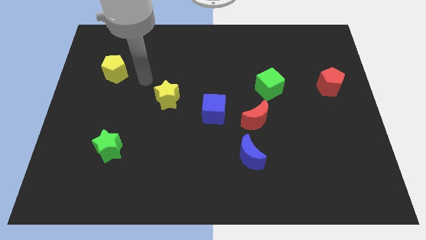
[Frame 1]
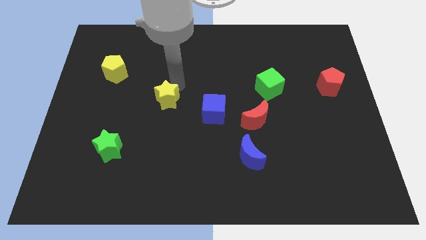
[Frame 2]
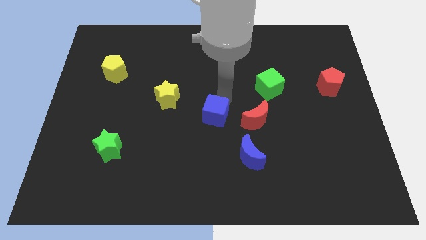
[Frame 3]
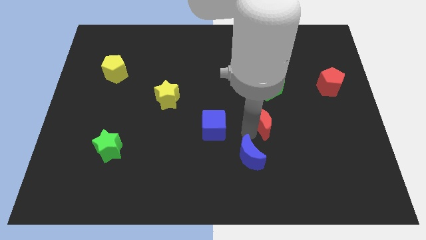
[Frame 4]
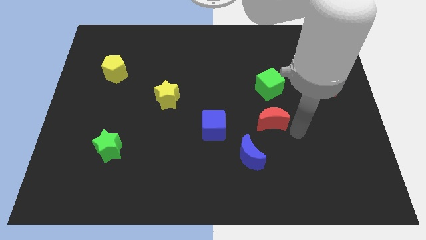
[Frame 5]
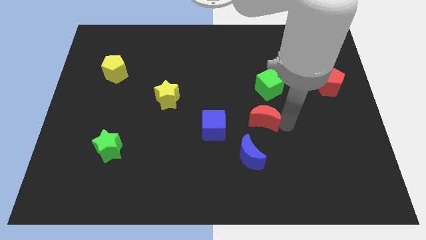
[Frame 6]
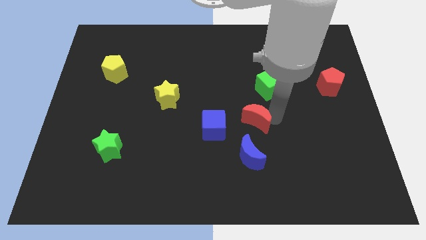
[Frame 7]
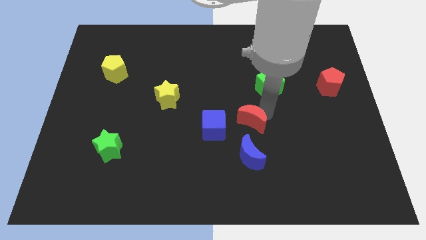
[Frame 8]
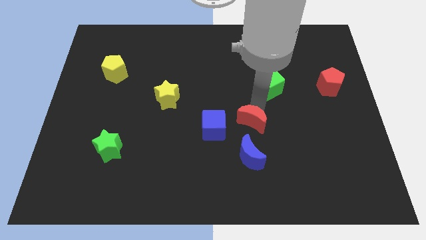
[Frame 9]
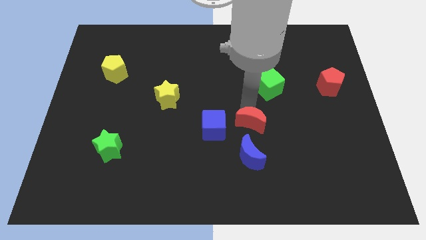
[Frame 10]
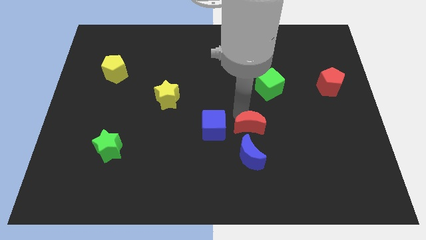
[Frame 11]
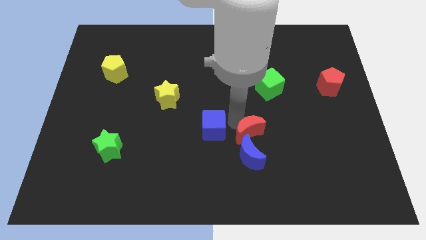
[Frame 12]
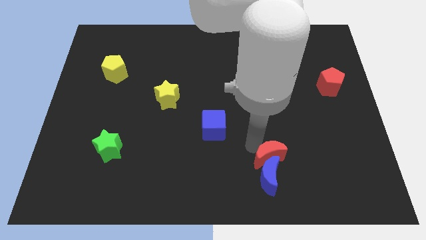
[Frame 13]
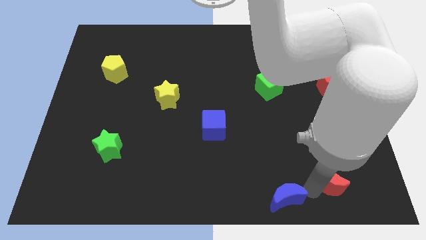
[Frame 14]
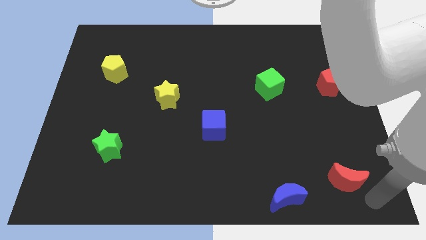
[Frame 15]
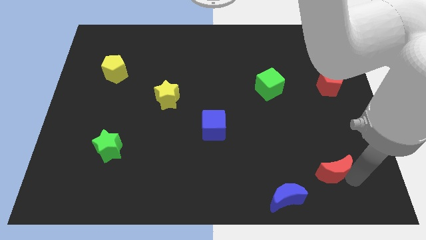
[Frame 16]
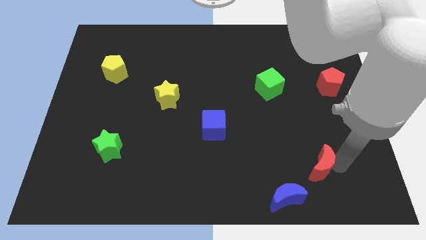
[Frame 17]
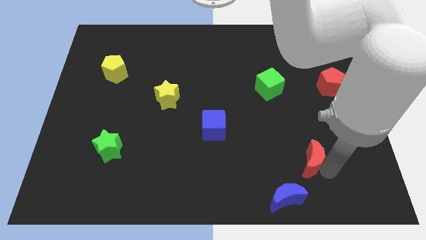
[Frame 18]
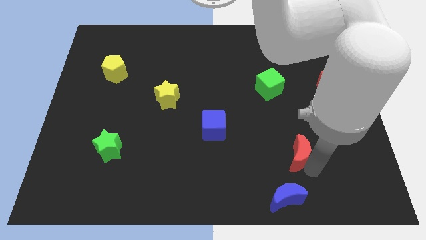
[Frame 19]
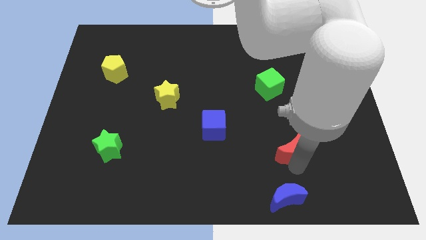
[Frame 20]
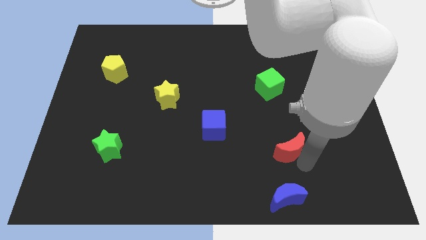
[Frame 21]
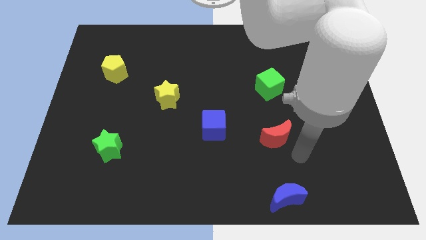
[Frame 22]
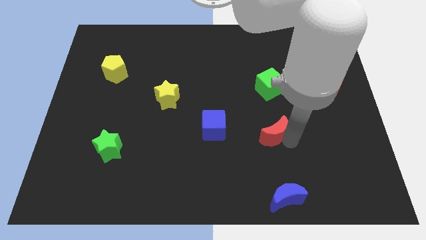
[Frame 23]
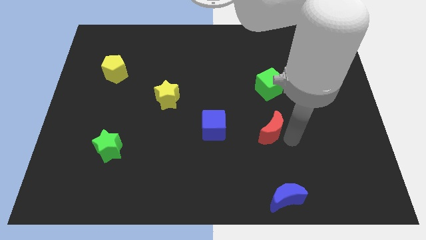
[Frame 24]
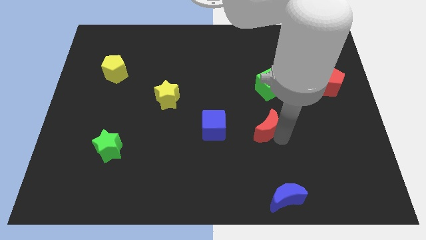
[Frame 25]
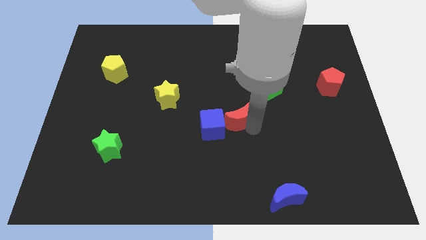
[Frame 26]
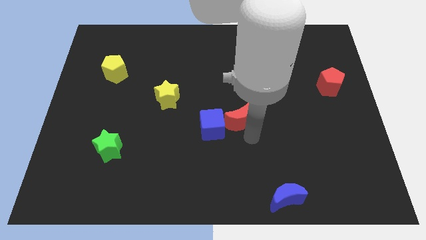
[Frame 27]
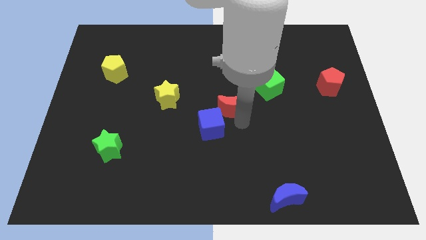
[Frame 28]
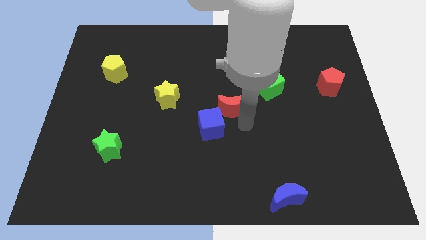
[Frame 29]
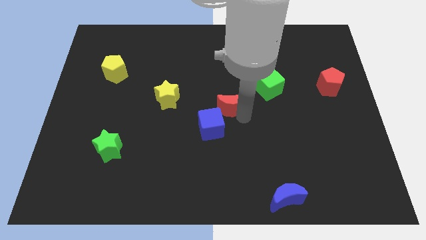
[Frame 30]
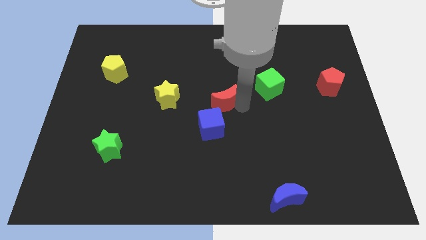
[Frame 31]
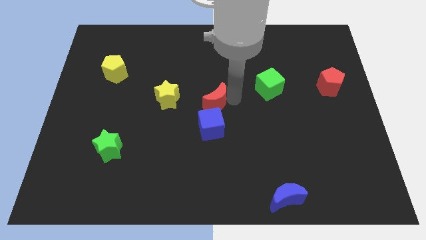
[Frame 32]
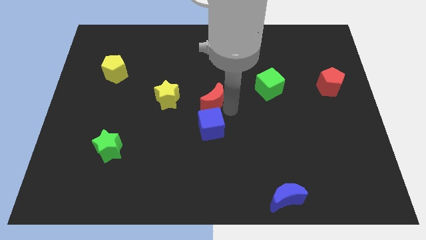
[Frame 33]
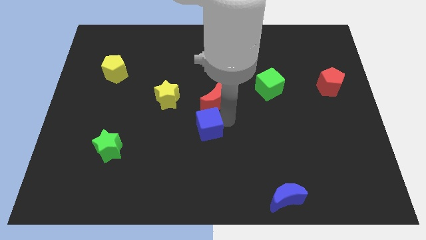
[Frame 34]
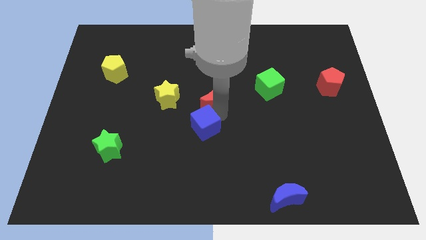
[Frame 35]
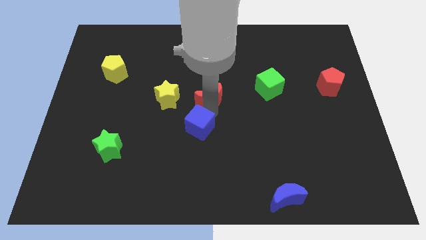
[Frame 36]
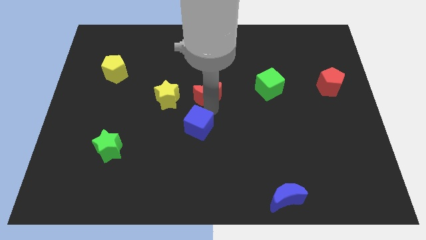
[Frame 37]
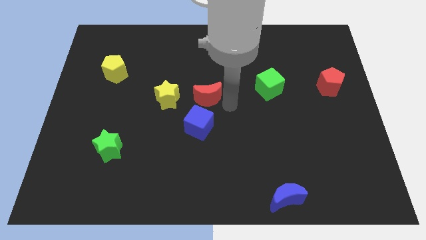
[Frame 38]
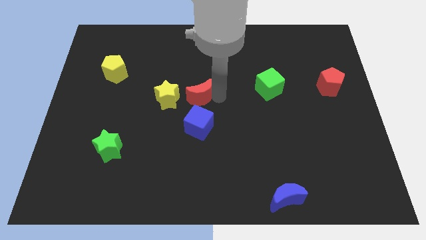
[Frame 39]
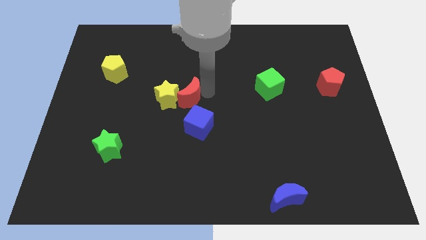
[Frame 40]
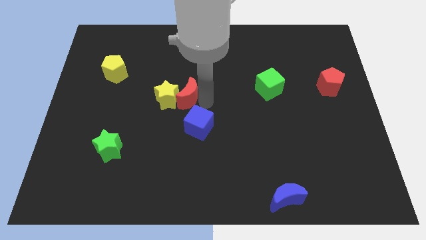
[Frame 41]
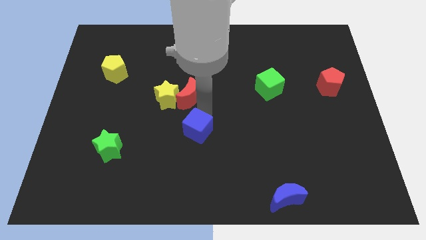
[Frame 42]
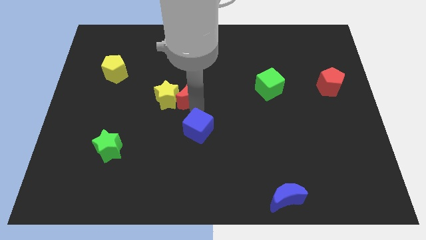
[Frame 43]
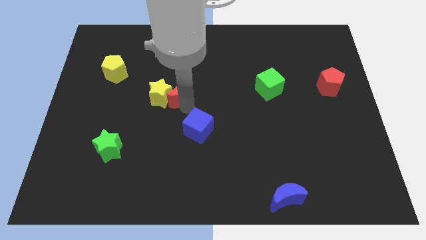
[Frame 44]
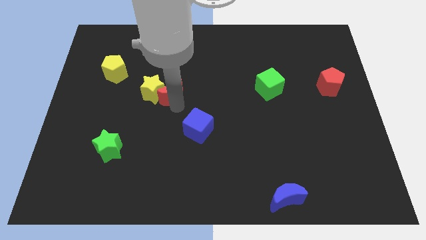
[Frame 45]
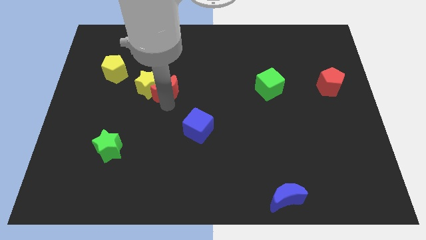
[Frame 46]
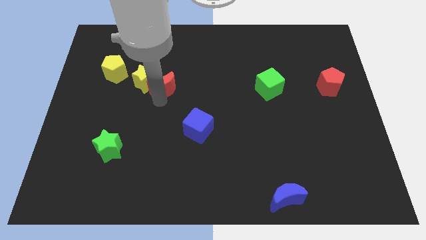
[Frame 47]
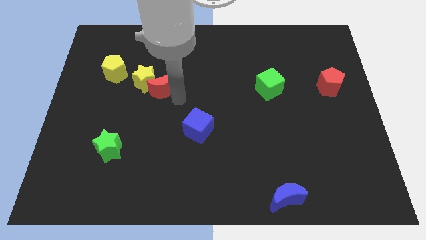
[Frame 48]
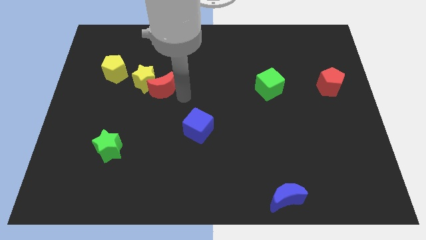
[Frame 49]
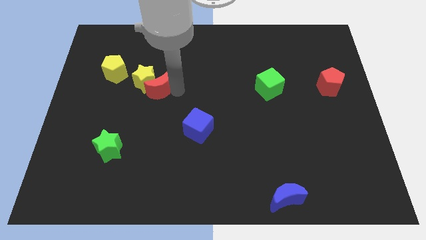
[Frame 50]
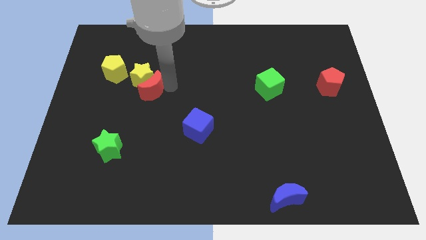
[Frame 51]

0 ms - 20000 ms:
push the red moon to the bottom right side of the yellow pentagon

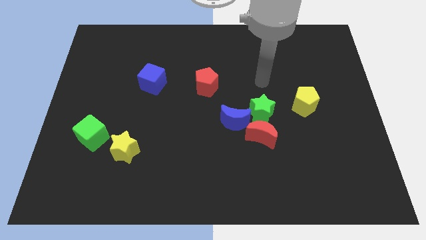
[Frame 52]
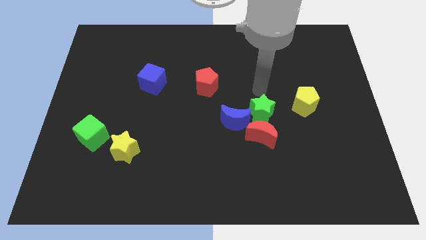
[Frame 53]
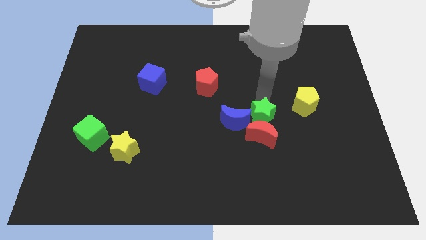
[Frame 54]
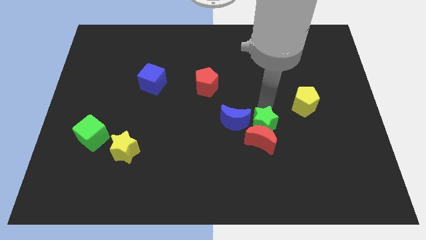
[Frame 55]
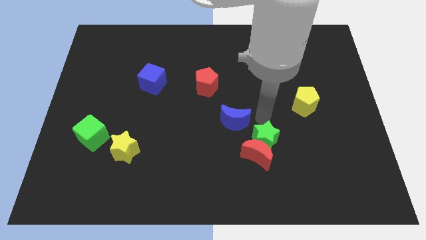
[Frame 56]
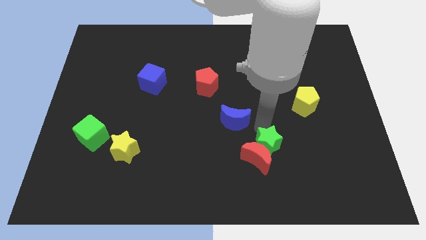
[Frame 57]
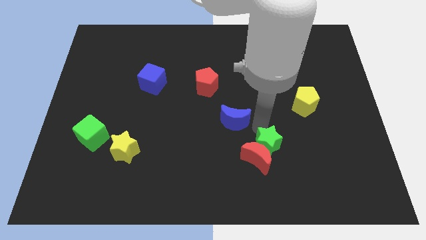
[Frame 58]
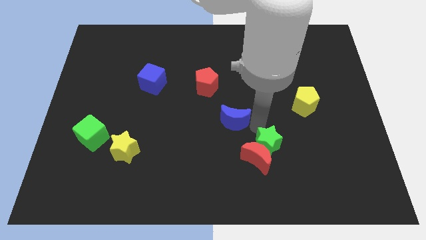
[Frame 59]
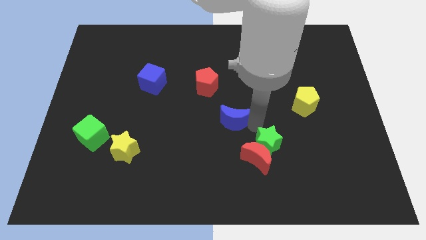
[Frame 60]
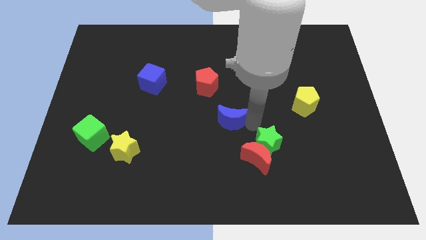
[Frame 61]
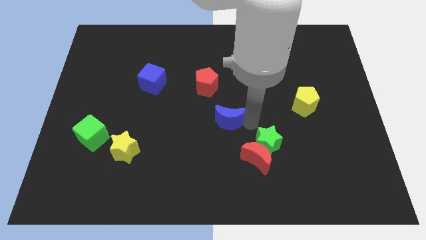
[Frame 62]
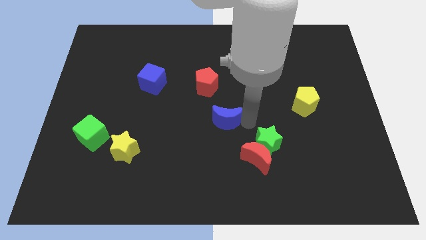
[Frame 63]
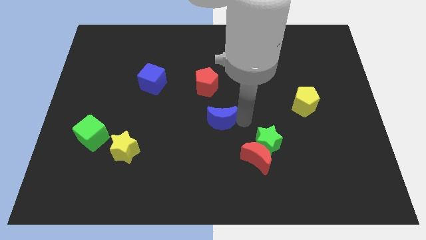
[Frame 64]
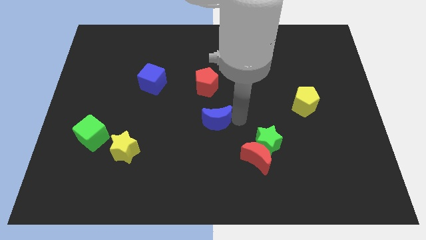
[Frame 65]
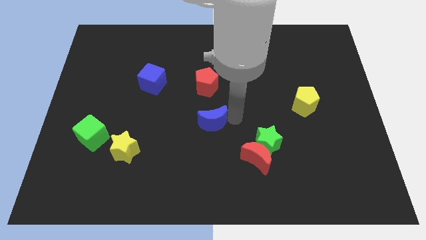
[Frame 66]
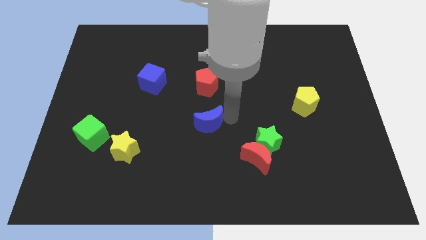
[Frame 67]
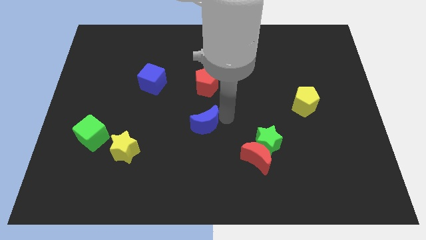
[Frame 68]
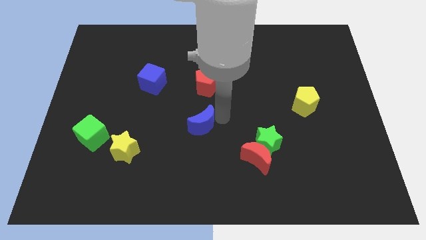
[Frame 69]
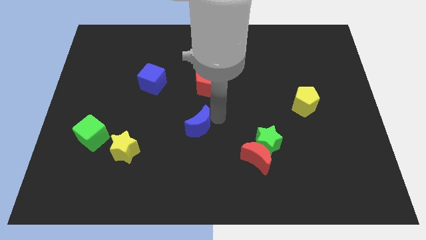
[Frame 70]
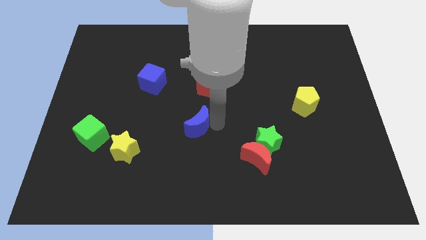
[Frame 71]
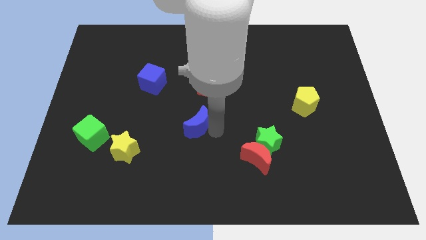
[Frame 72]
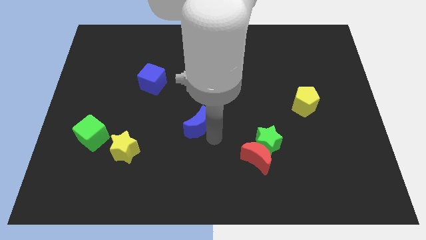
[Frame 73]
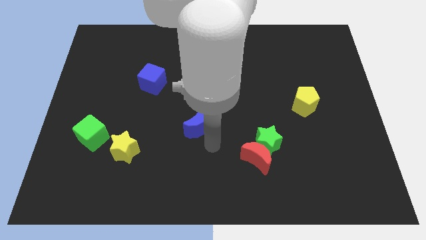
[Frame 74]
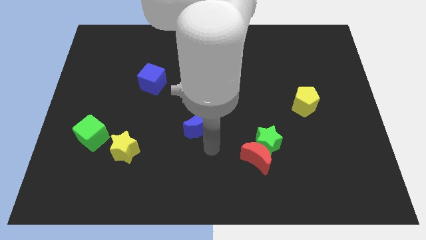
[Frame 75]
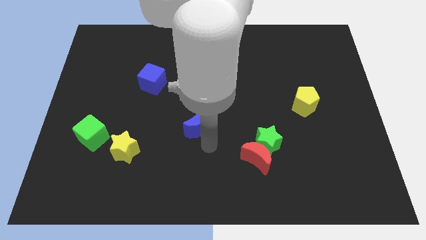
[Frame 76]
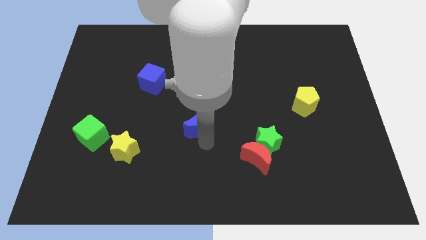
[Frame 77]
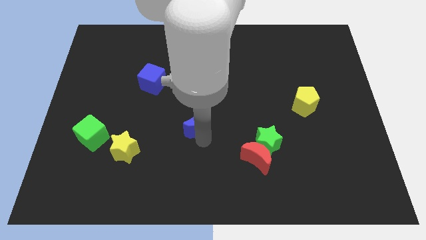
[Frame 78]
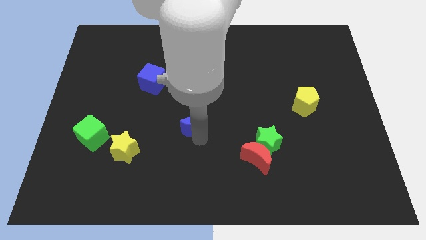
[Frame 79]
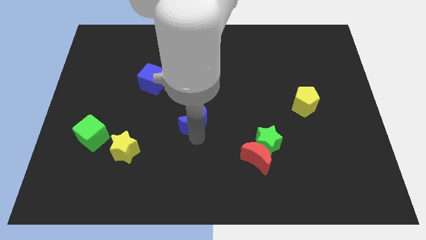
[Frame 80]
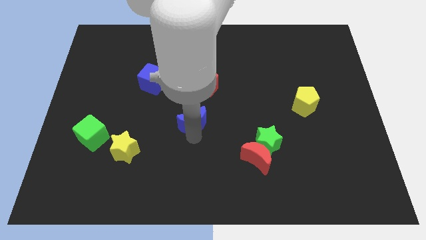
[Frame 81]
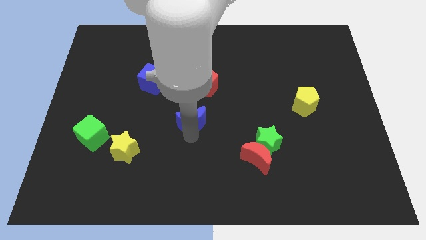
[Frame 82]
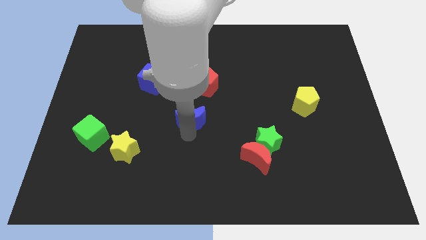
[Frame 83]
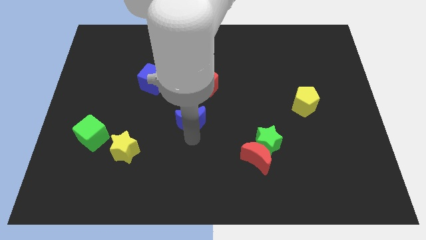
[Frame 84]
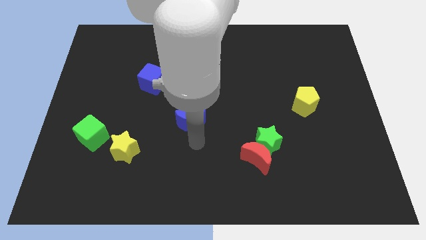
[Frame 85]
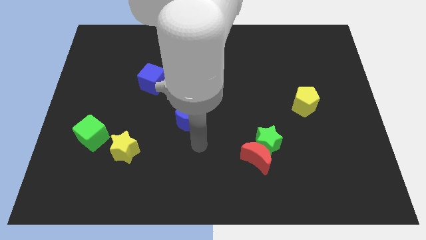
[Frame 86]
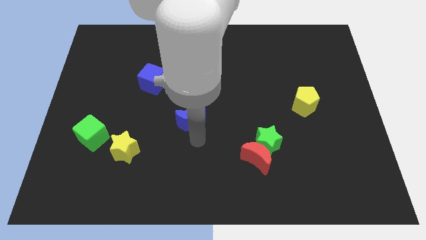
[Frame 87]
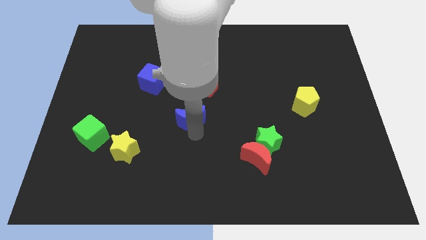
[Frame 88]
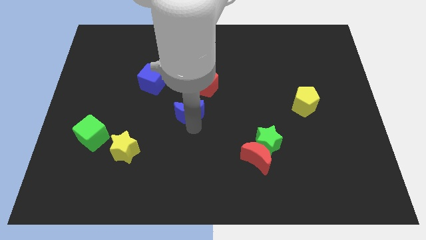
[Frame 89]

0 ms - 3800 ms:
move the blue moon to the bottom left side of the red pentagon
